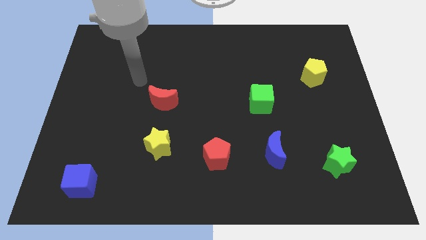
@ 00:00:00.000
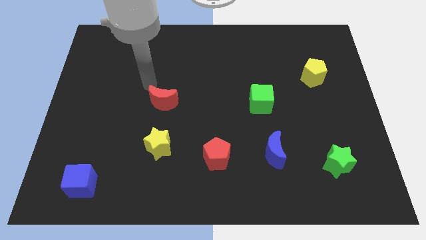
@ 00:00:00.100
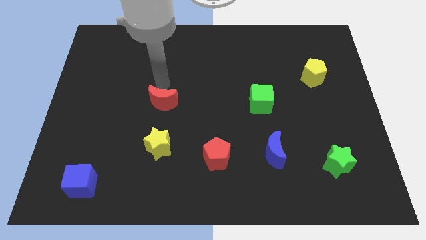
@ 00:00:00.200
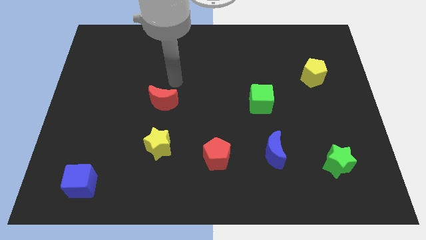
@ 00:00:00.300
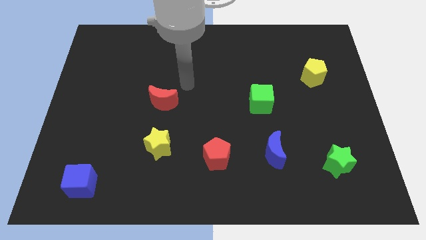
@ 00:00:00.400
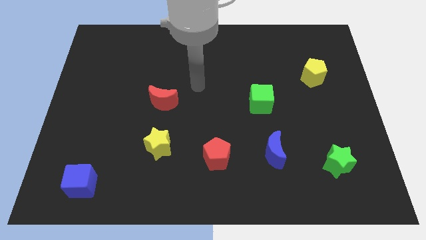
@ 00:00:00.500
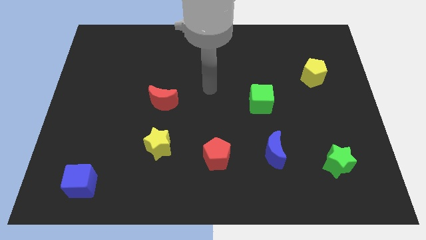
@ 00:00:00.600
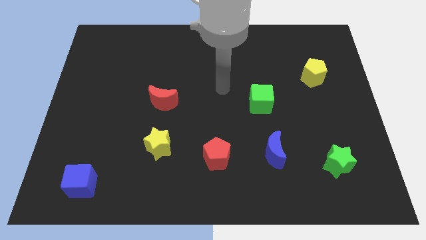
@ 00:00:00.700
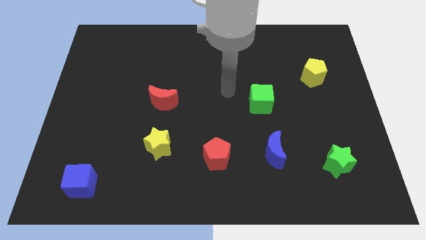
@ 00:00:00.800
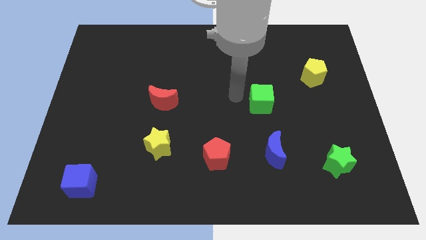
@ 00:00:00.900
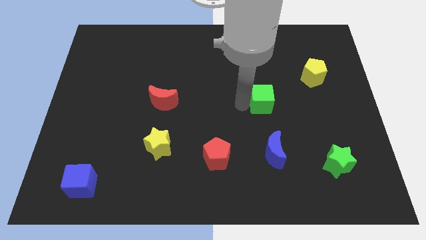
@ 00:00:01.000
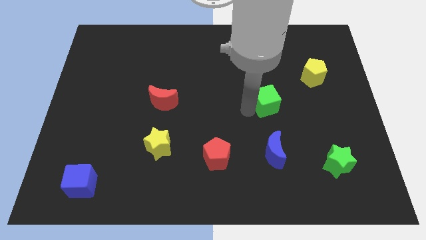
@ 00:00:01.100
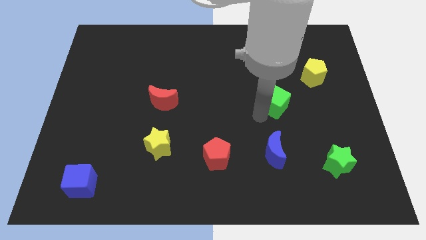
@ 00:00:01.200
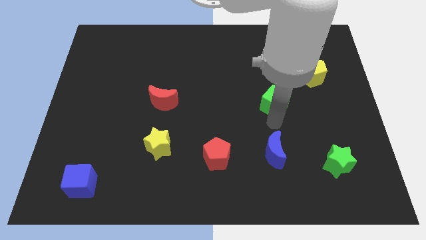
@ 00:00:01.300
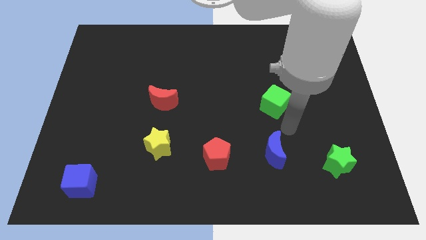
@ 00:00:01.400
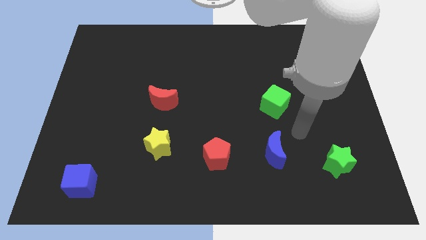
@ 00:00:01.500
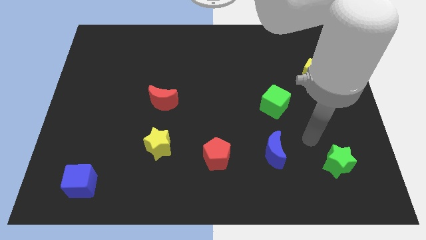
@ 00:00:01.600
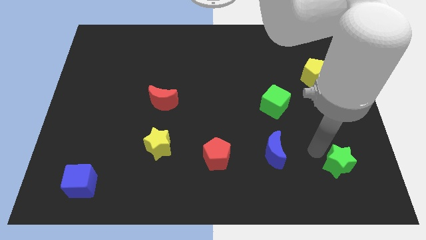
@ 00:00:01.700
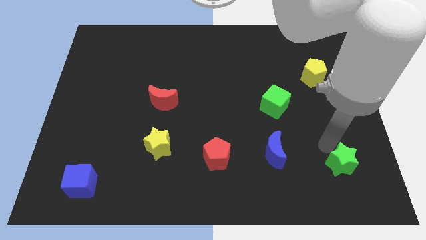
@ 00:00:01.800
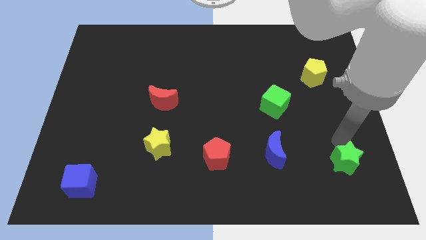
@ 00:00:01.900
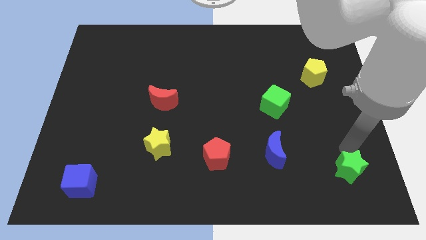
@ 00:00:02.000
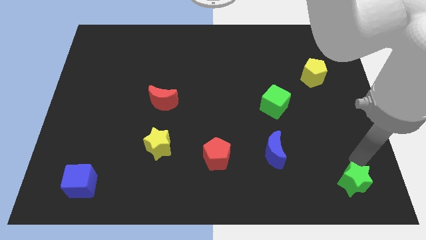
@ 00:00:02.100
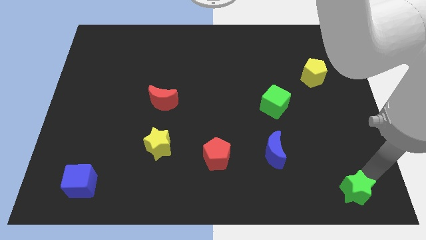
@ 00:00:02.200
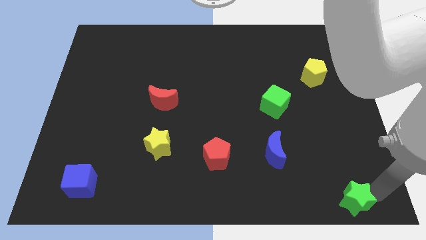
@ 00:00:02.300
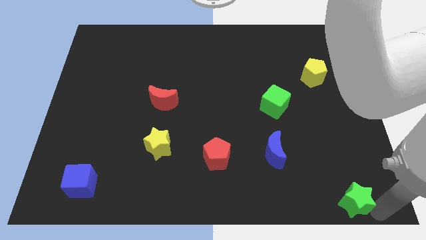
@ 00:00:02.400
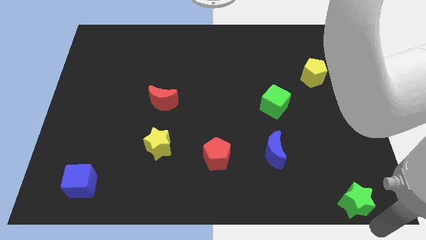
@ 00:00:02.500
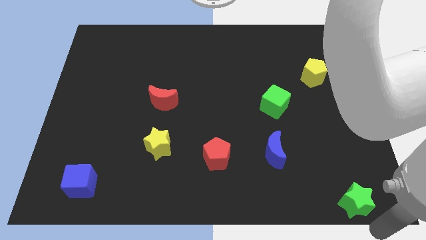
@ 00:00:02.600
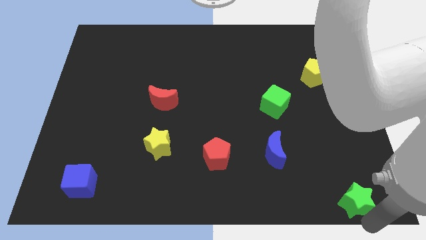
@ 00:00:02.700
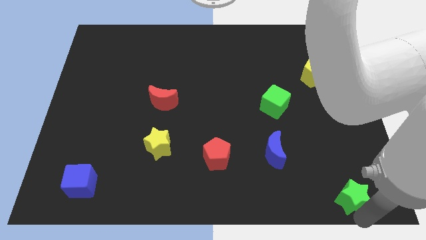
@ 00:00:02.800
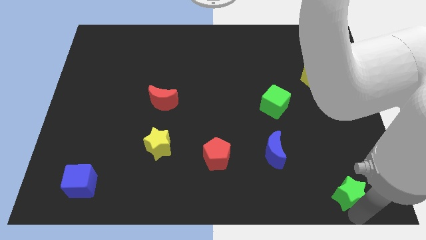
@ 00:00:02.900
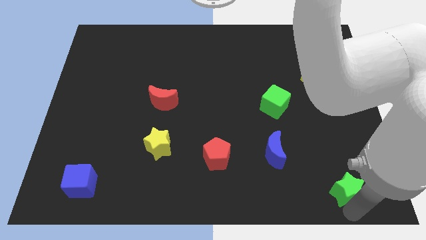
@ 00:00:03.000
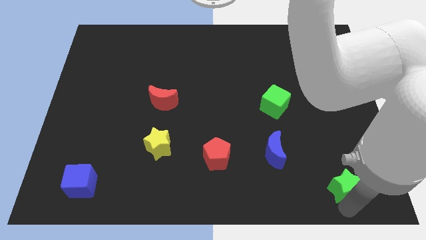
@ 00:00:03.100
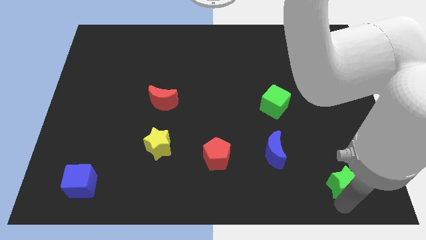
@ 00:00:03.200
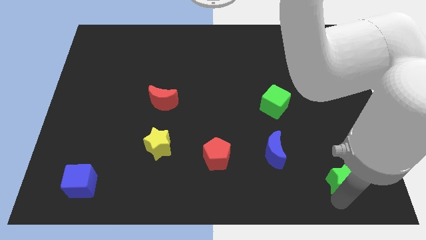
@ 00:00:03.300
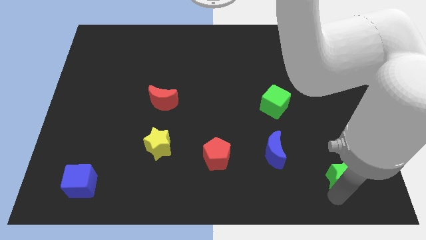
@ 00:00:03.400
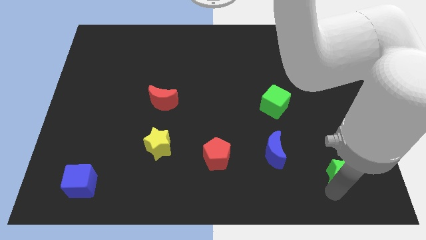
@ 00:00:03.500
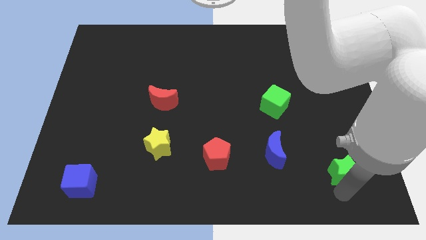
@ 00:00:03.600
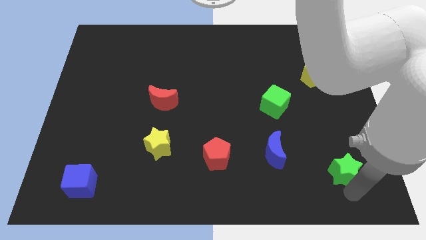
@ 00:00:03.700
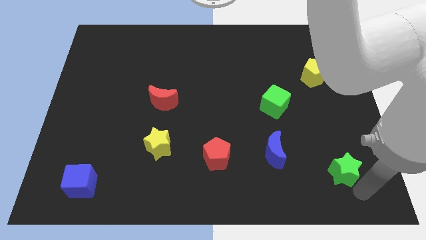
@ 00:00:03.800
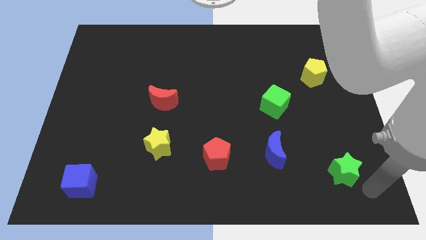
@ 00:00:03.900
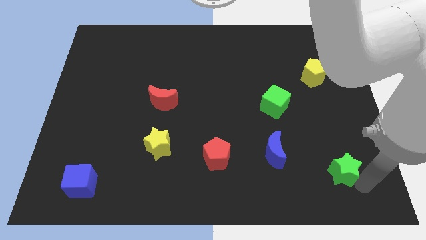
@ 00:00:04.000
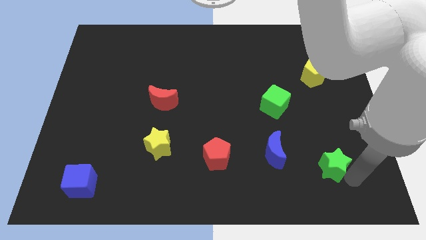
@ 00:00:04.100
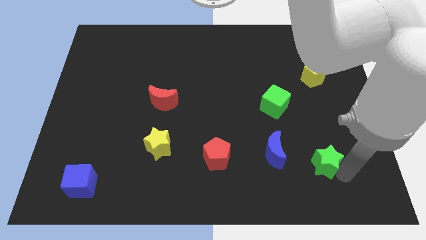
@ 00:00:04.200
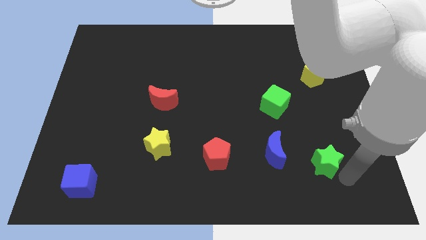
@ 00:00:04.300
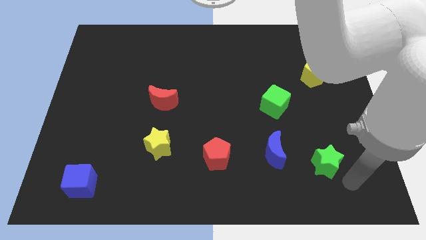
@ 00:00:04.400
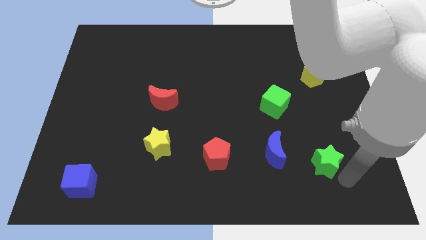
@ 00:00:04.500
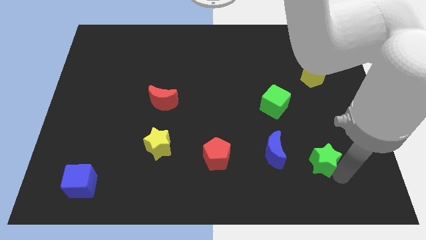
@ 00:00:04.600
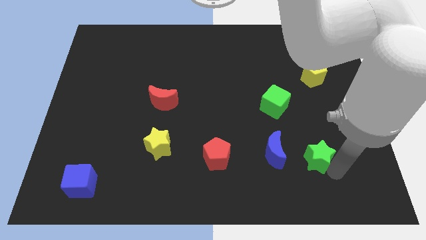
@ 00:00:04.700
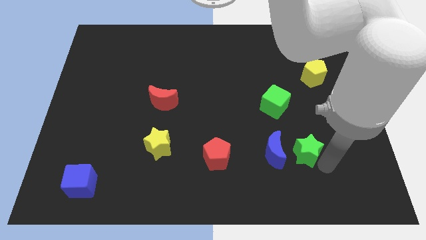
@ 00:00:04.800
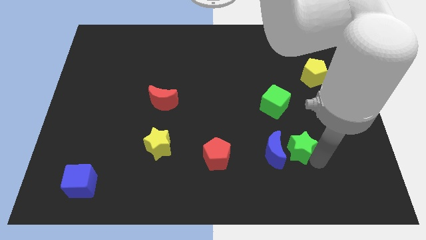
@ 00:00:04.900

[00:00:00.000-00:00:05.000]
move the green star to the bottom side of the green cube

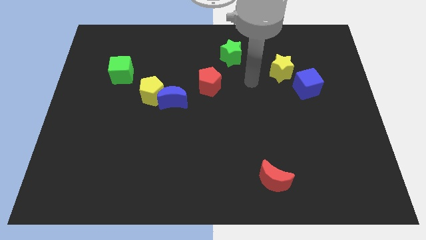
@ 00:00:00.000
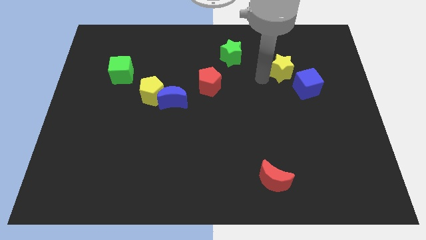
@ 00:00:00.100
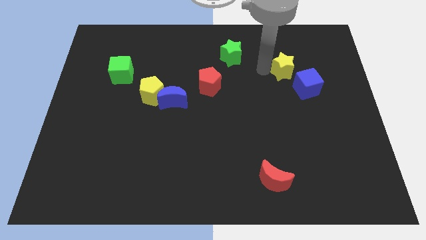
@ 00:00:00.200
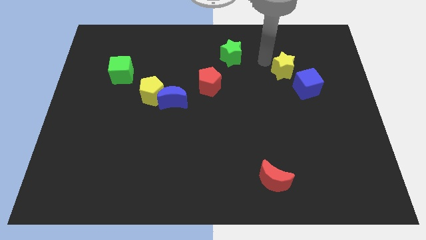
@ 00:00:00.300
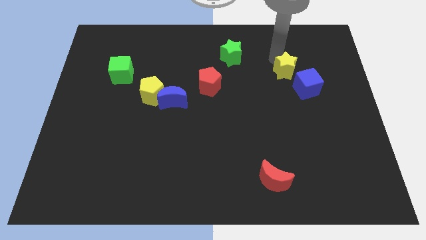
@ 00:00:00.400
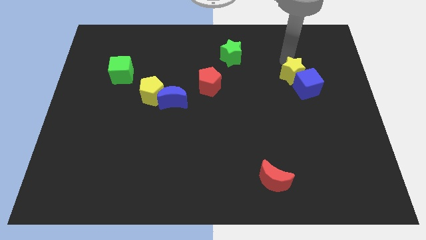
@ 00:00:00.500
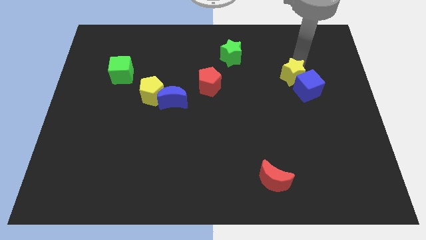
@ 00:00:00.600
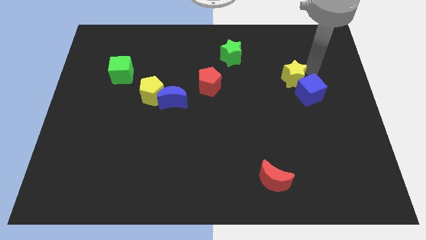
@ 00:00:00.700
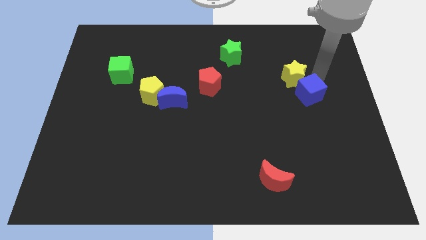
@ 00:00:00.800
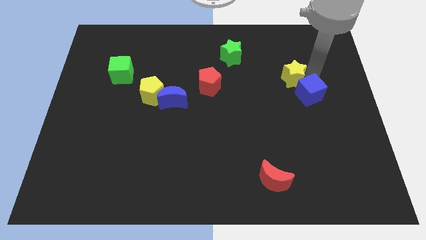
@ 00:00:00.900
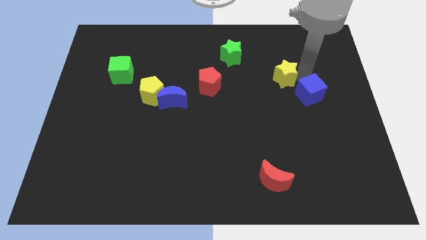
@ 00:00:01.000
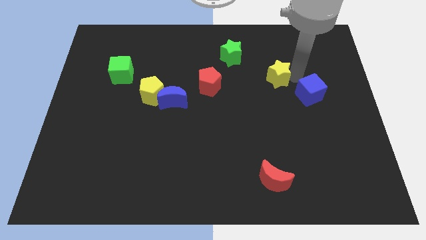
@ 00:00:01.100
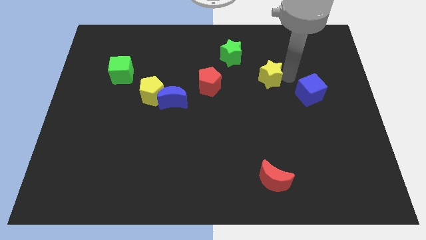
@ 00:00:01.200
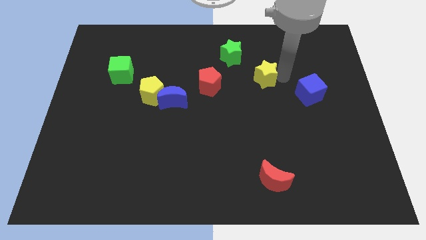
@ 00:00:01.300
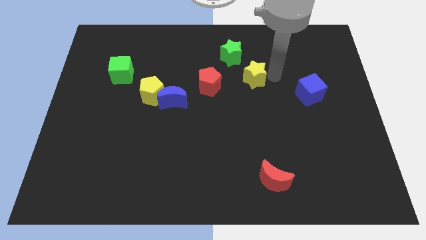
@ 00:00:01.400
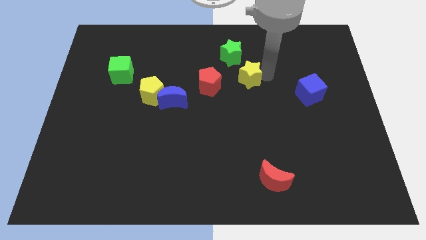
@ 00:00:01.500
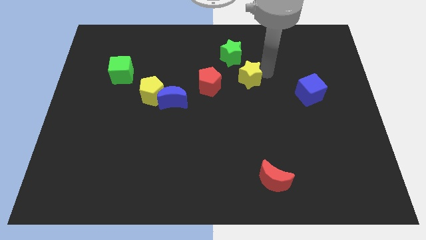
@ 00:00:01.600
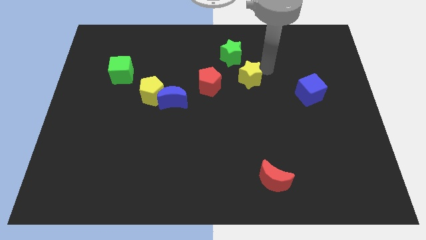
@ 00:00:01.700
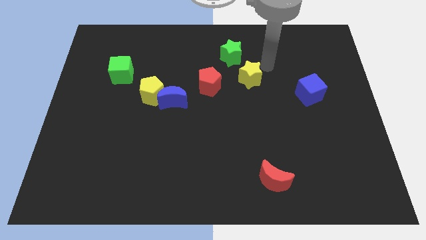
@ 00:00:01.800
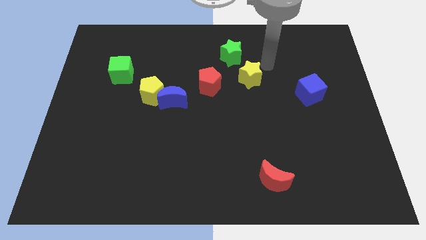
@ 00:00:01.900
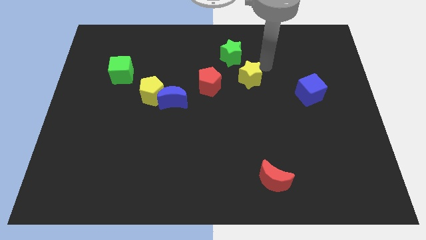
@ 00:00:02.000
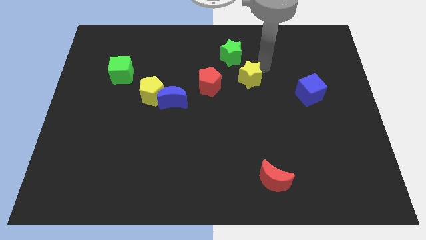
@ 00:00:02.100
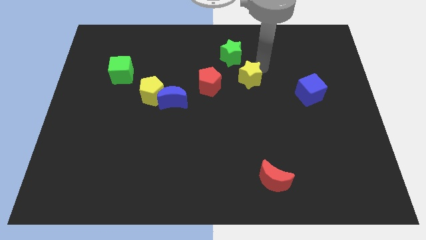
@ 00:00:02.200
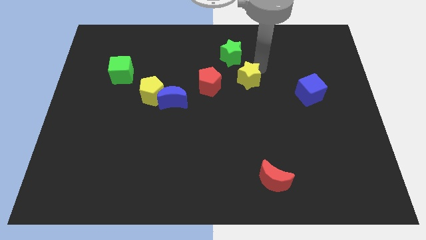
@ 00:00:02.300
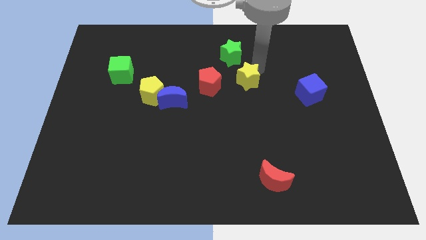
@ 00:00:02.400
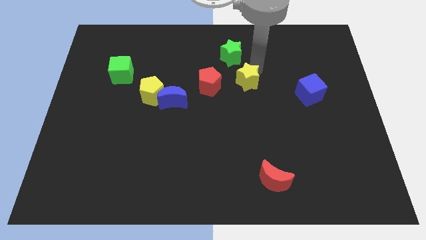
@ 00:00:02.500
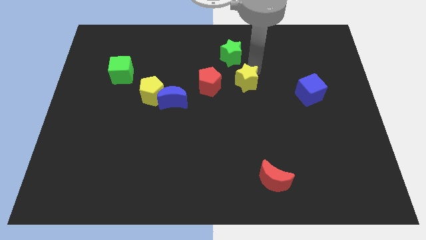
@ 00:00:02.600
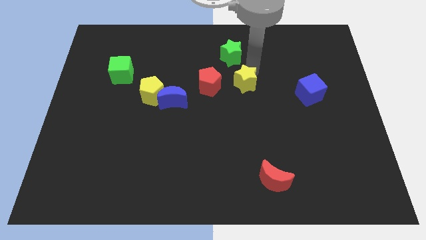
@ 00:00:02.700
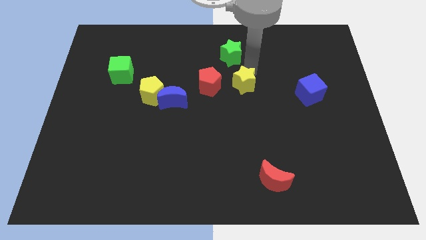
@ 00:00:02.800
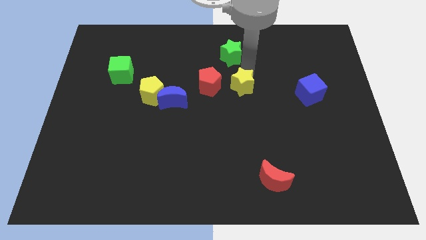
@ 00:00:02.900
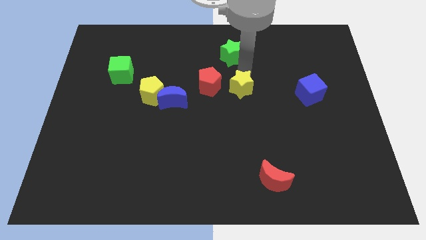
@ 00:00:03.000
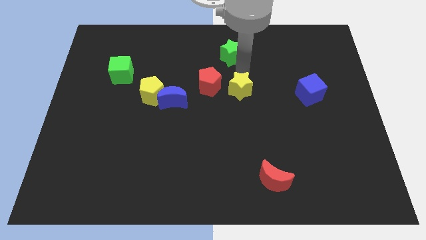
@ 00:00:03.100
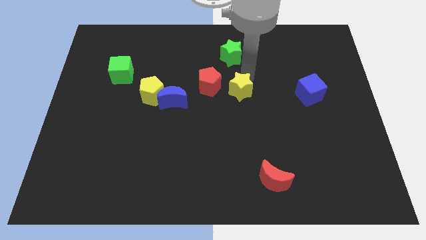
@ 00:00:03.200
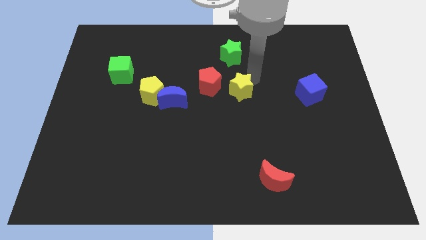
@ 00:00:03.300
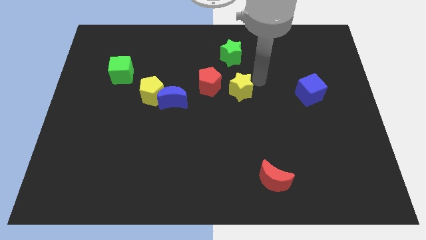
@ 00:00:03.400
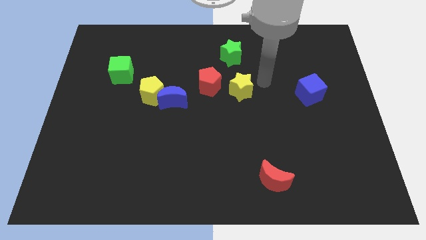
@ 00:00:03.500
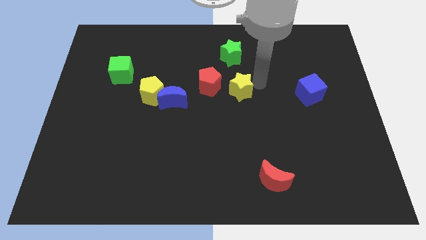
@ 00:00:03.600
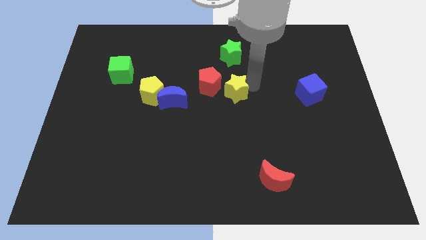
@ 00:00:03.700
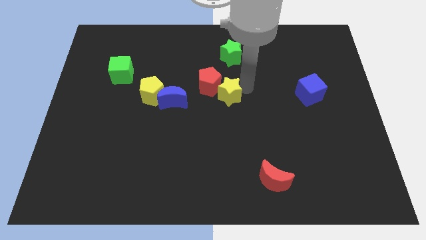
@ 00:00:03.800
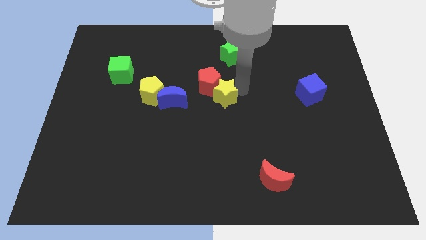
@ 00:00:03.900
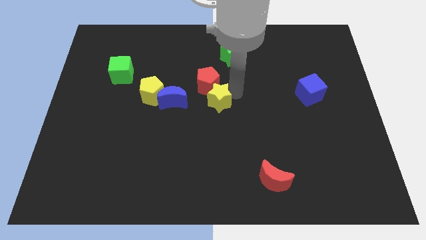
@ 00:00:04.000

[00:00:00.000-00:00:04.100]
move the yellow star to the right side of the yellow pentagon
